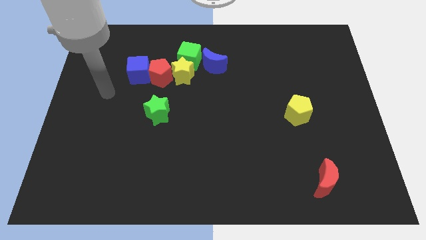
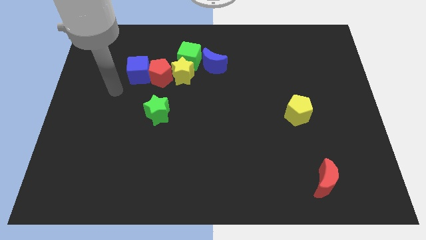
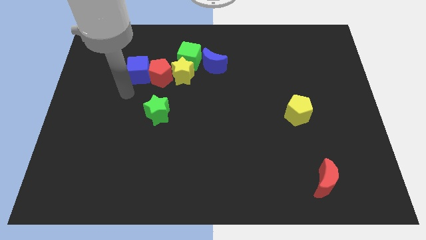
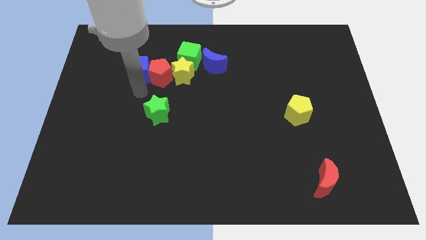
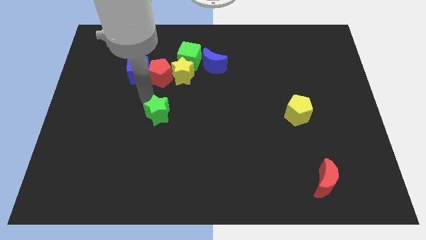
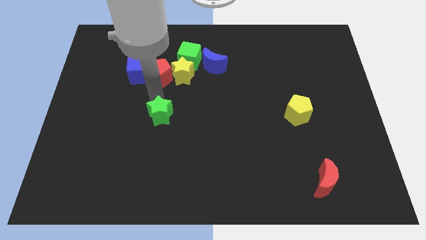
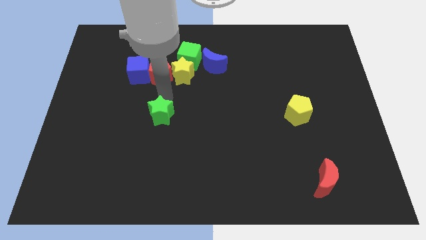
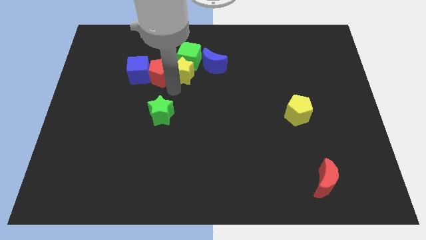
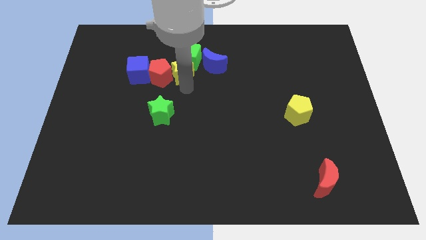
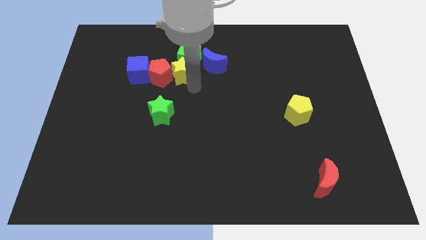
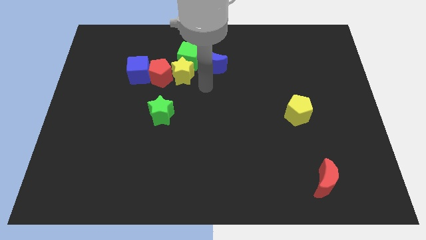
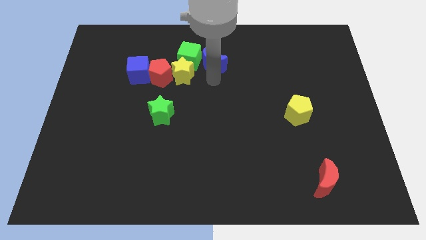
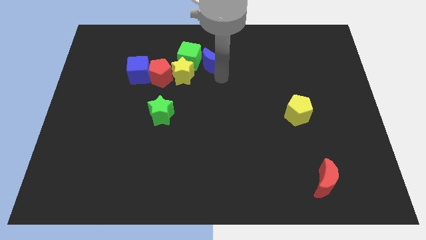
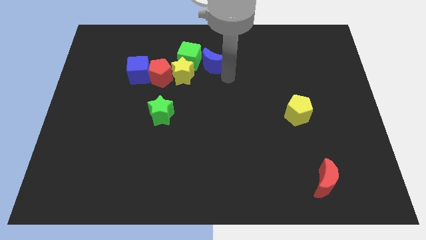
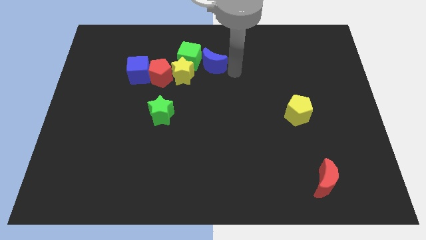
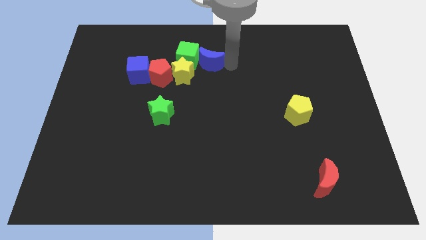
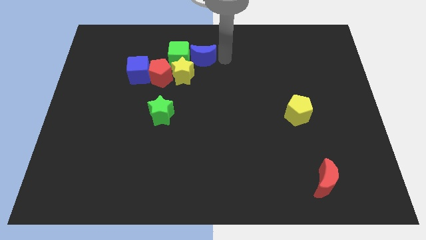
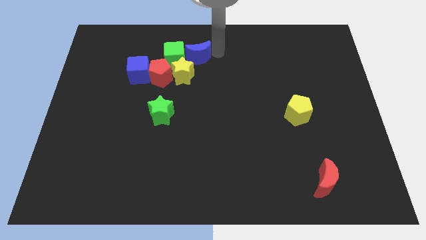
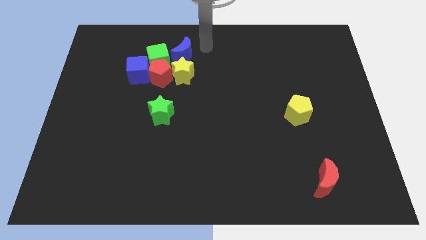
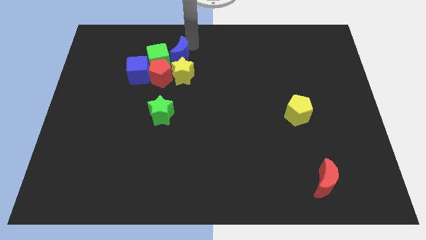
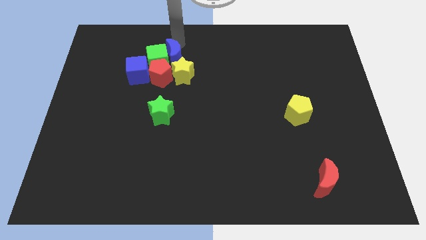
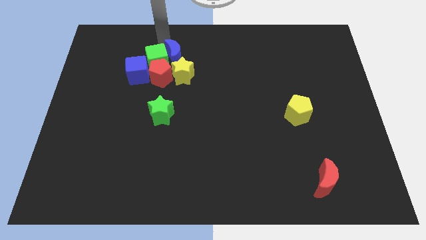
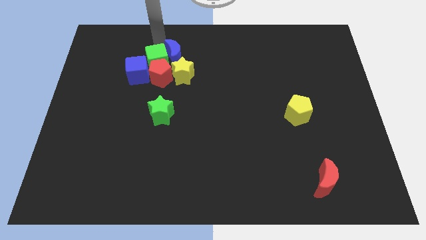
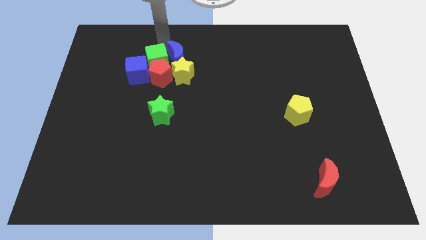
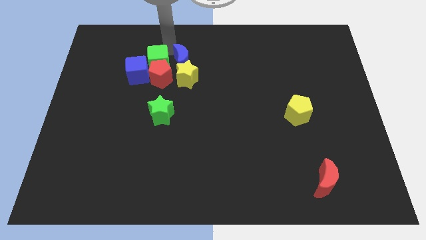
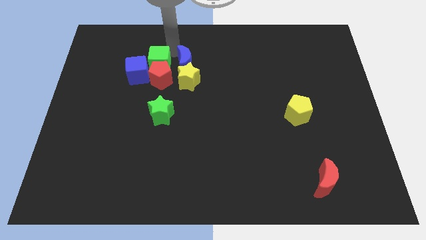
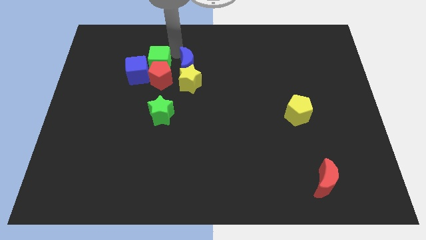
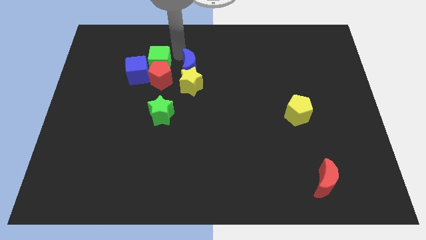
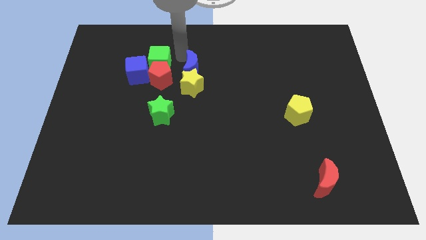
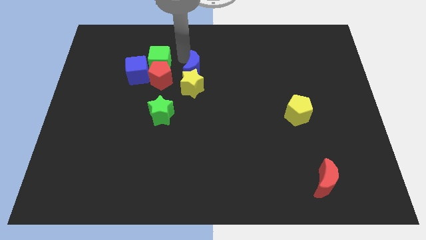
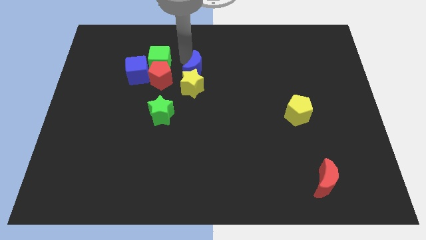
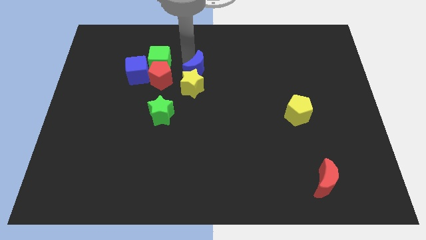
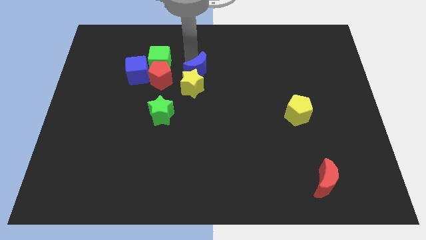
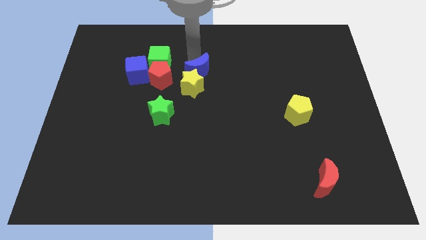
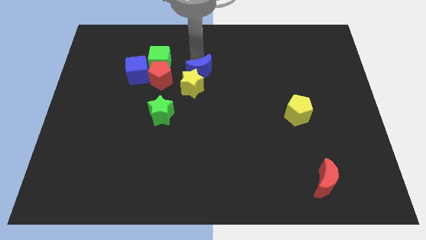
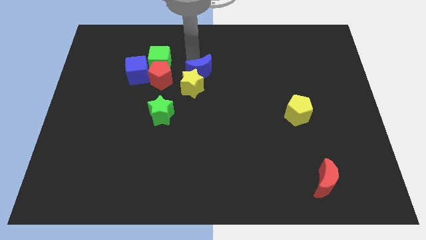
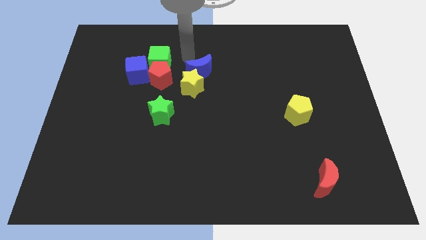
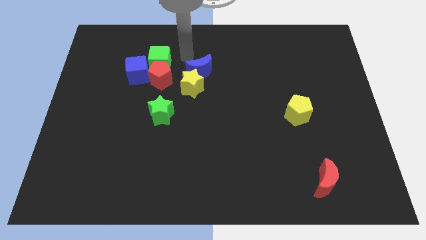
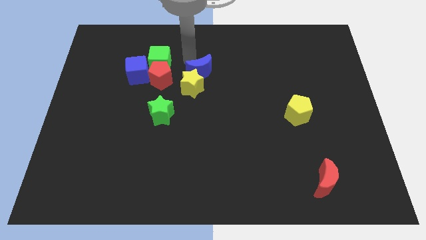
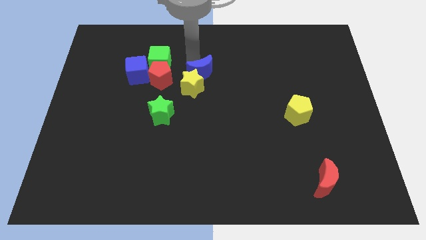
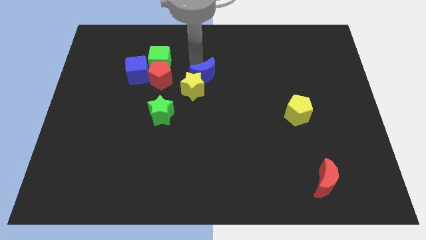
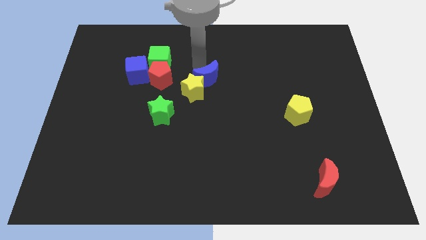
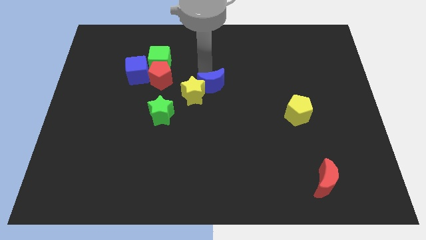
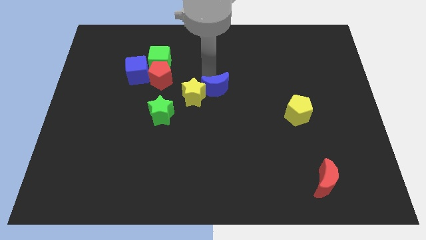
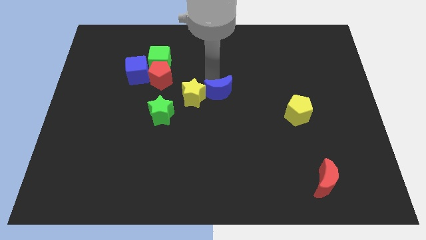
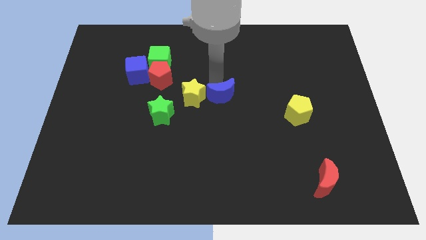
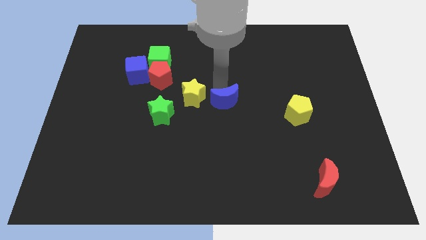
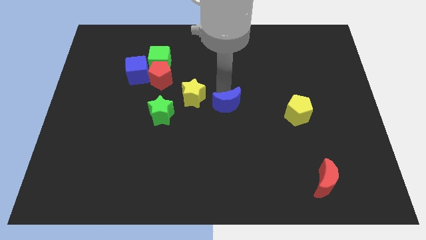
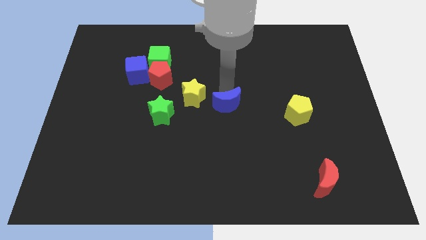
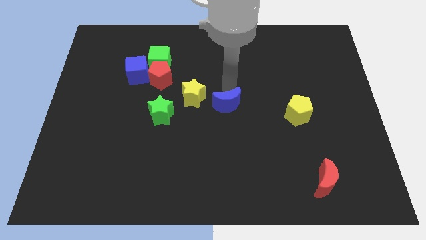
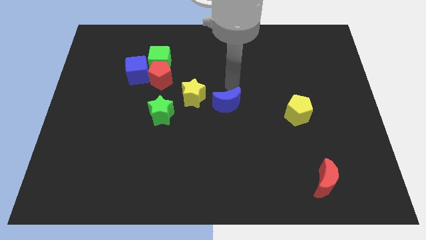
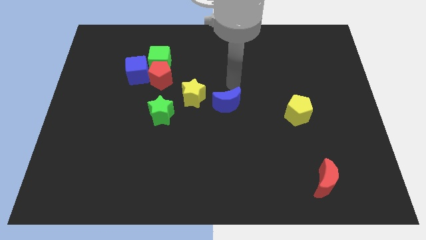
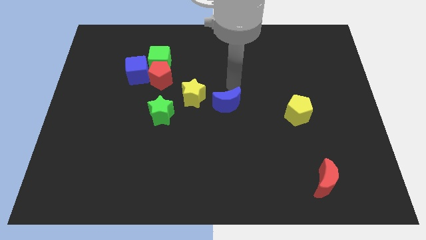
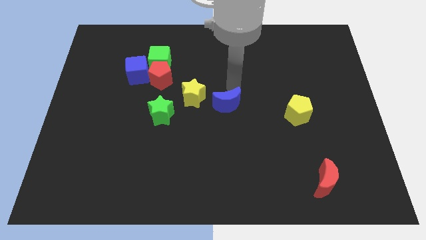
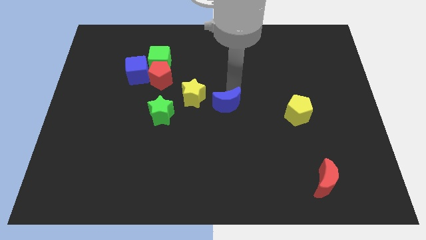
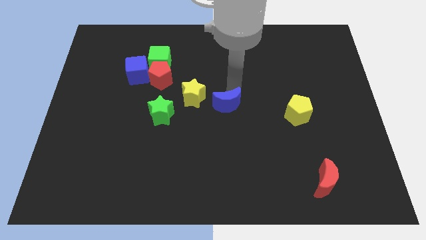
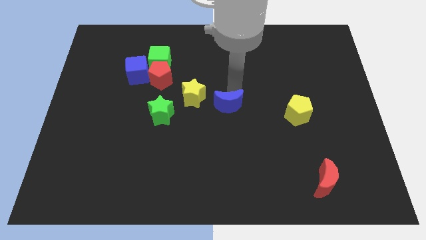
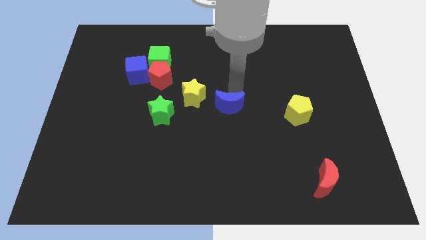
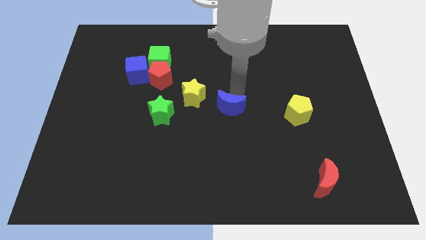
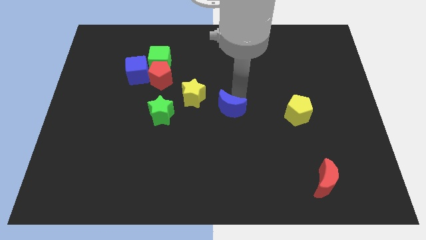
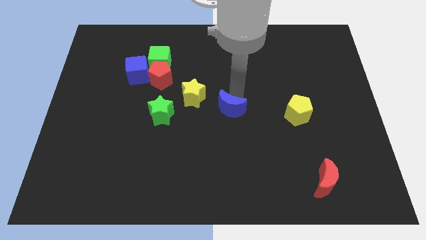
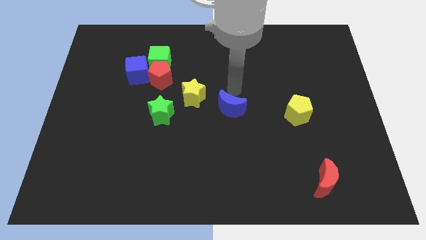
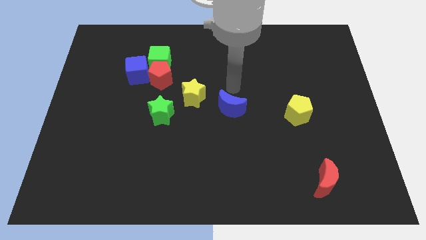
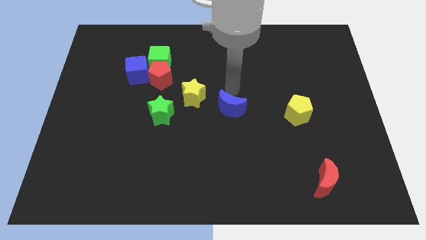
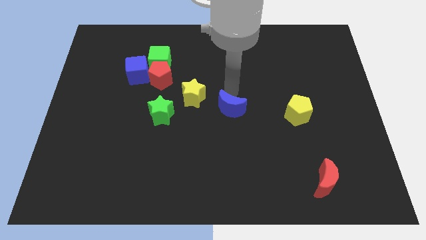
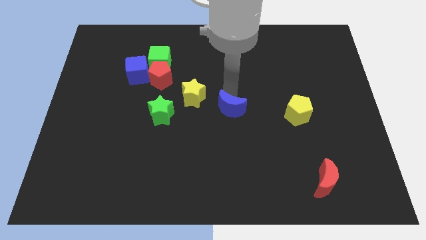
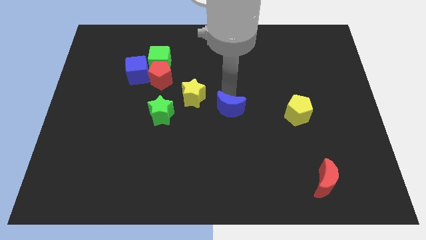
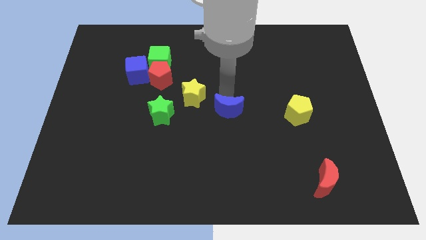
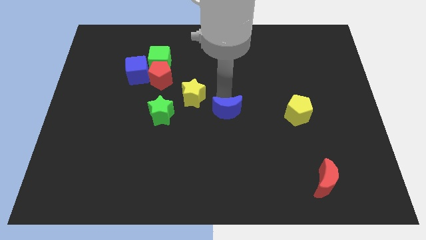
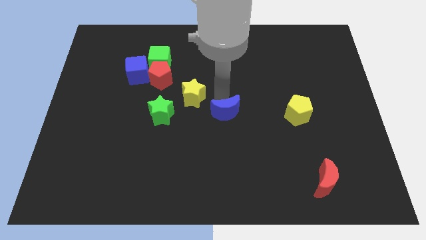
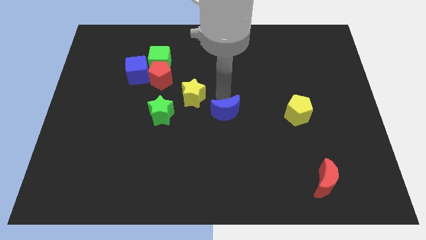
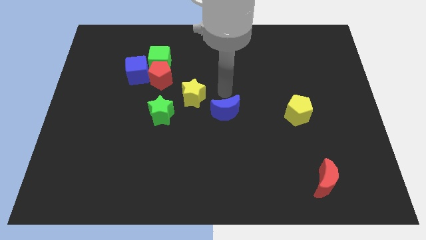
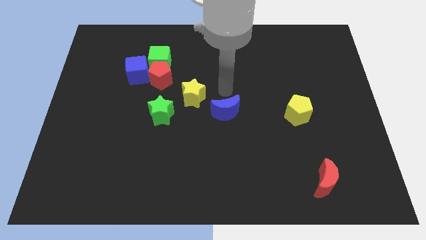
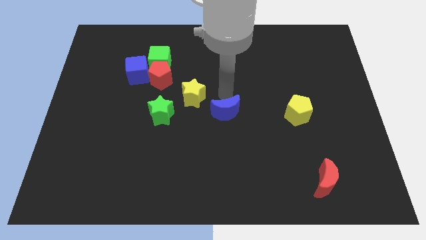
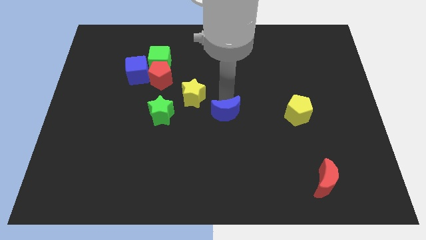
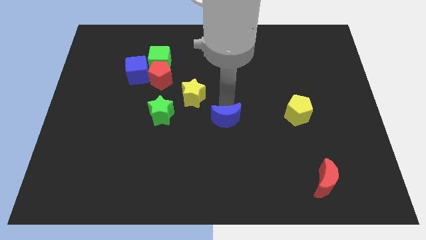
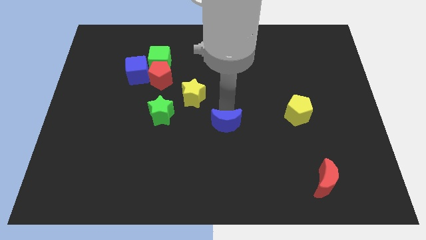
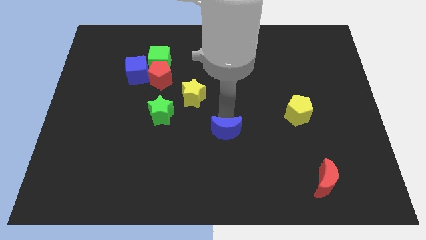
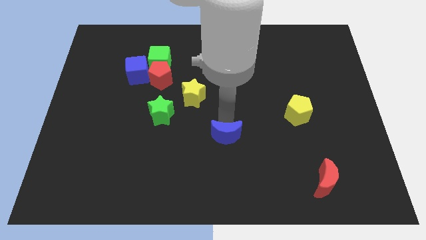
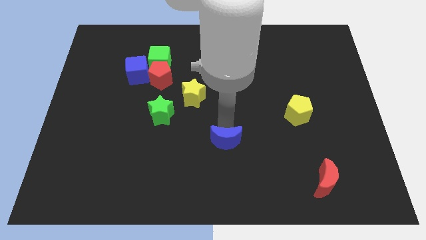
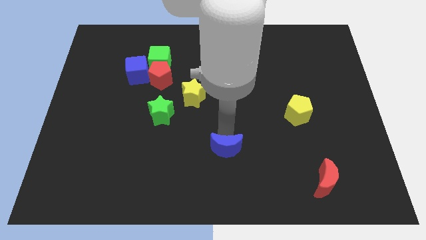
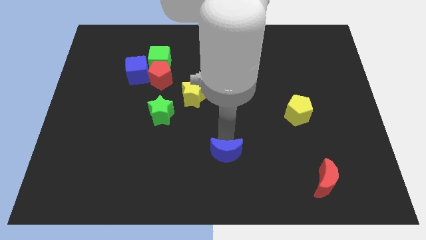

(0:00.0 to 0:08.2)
push the blue moon to the bottom side
